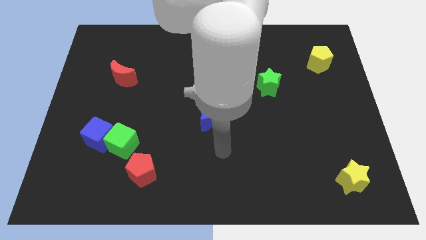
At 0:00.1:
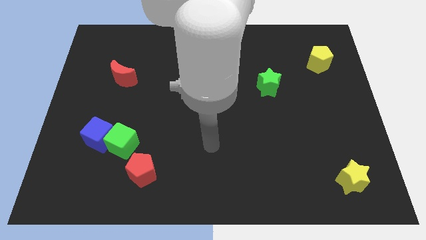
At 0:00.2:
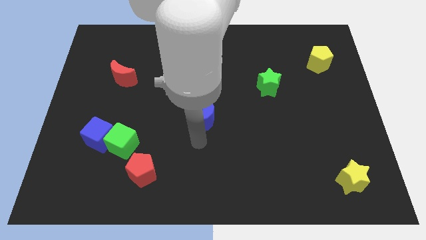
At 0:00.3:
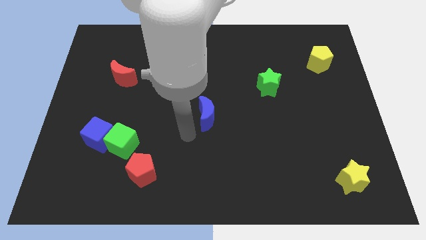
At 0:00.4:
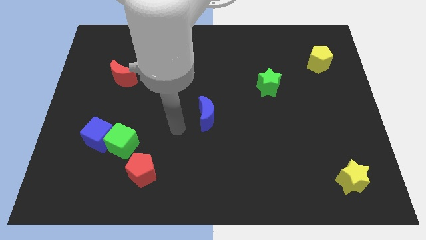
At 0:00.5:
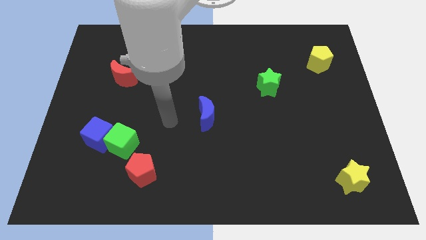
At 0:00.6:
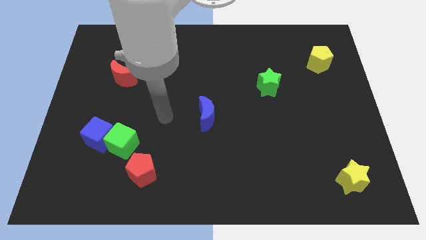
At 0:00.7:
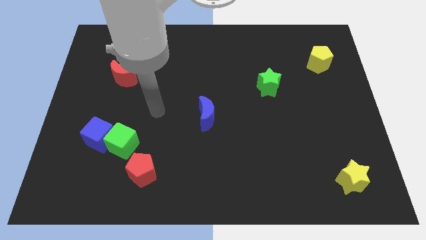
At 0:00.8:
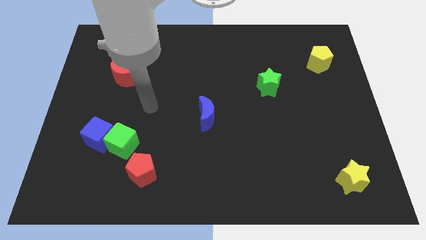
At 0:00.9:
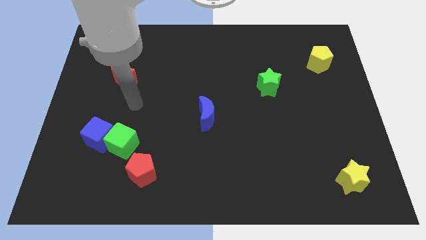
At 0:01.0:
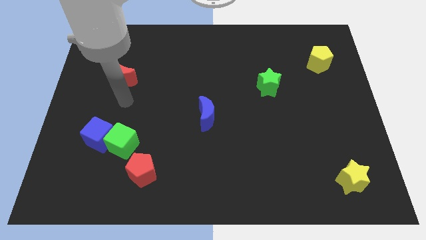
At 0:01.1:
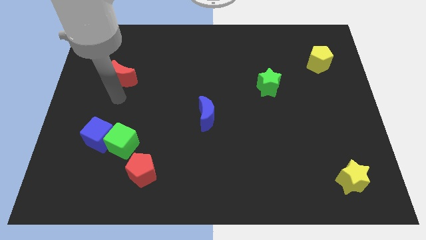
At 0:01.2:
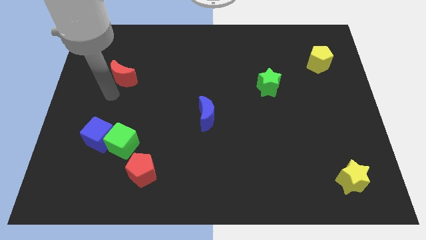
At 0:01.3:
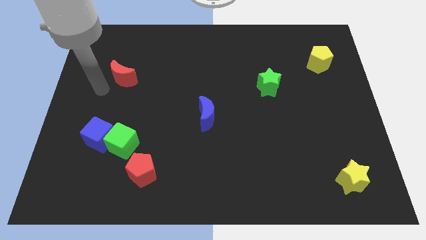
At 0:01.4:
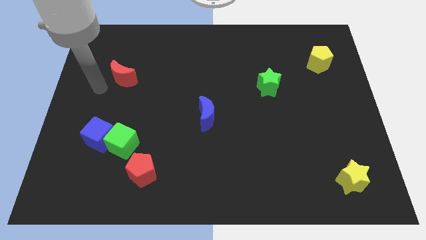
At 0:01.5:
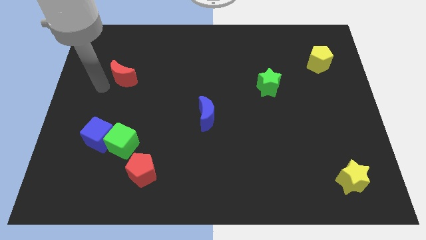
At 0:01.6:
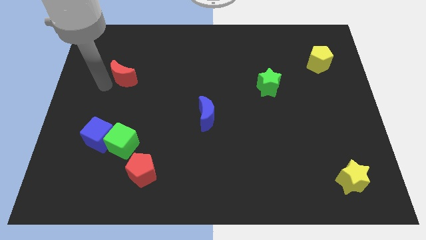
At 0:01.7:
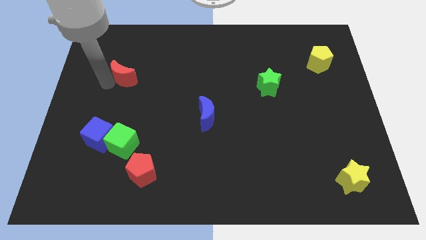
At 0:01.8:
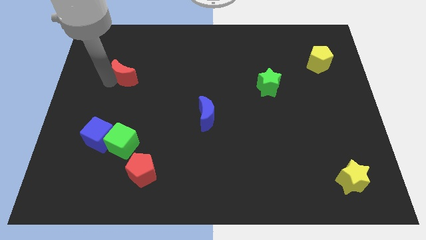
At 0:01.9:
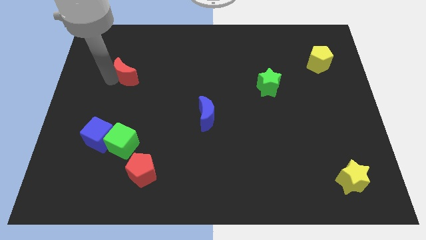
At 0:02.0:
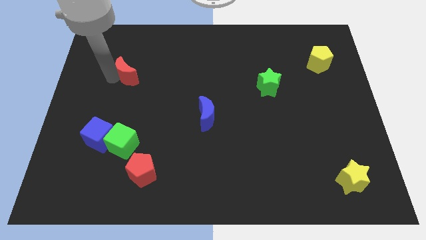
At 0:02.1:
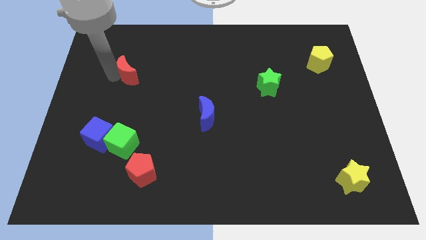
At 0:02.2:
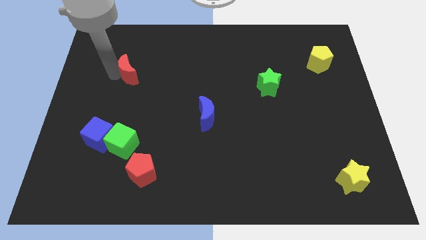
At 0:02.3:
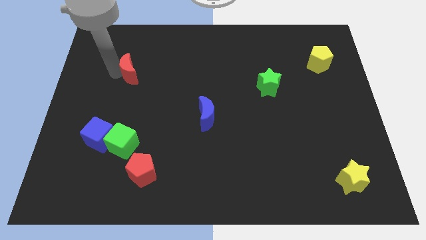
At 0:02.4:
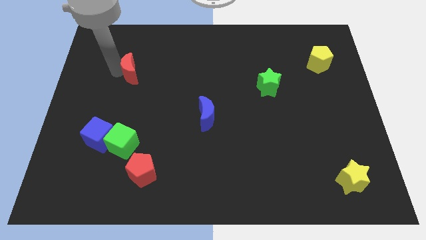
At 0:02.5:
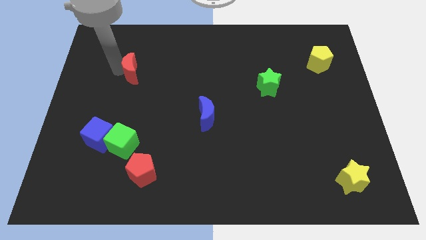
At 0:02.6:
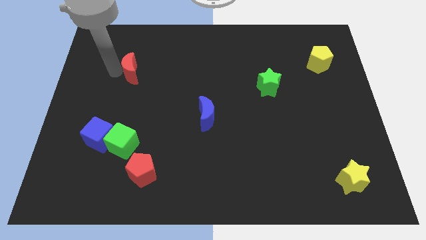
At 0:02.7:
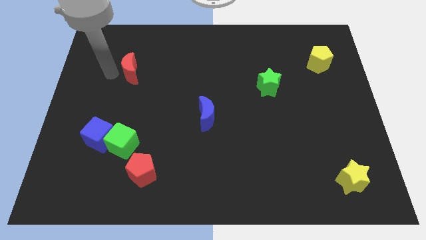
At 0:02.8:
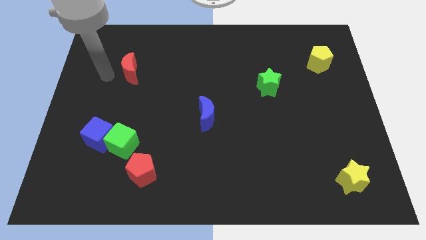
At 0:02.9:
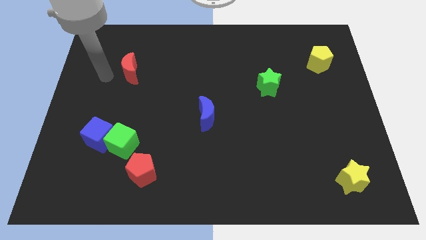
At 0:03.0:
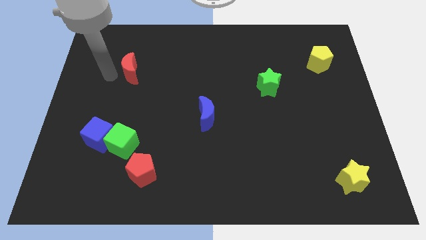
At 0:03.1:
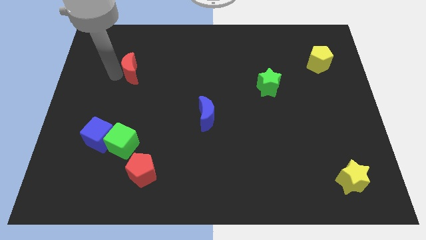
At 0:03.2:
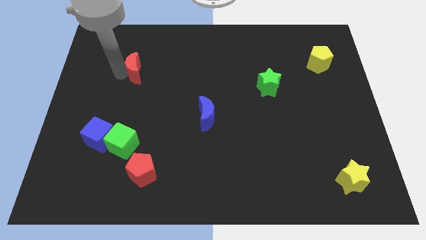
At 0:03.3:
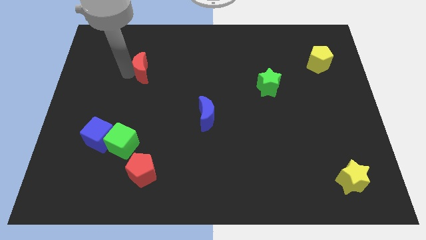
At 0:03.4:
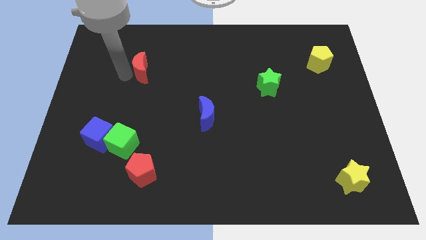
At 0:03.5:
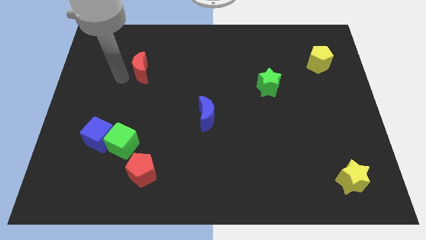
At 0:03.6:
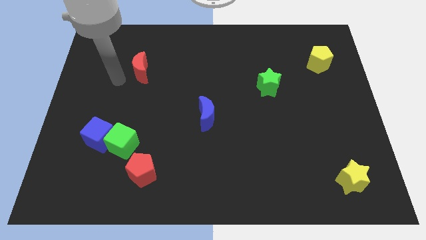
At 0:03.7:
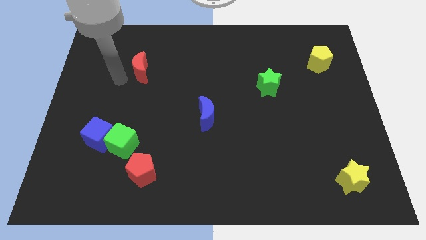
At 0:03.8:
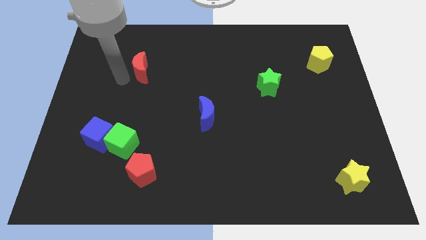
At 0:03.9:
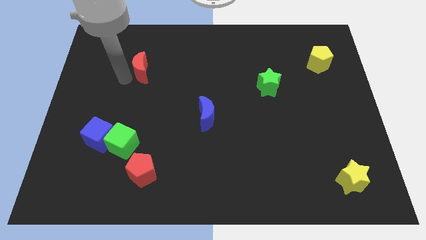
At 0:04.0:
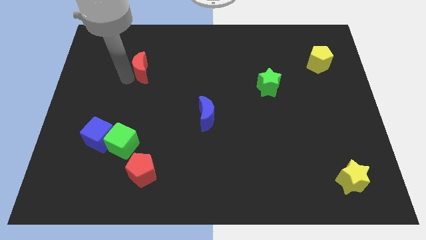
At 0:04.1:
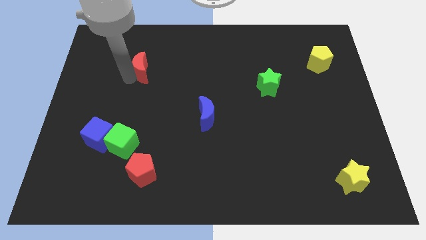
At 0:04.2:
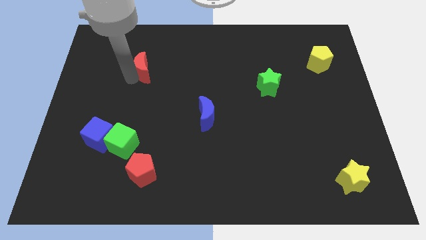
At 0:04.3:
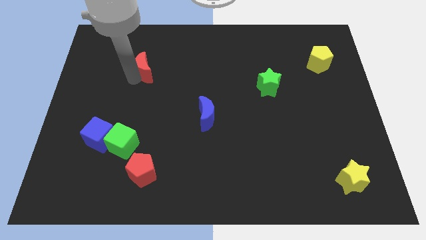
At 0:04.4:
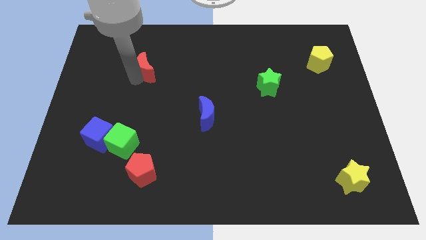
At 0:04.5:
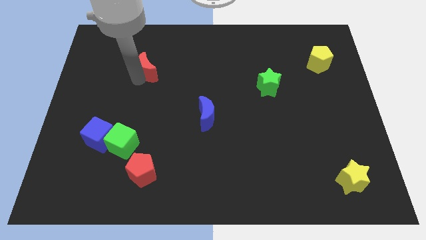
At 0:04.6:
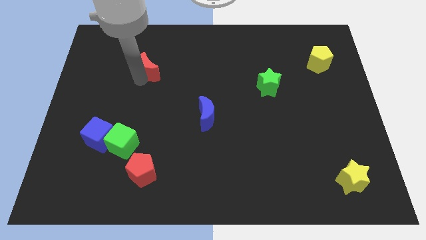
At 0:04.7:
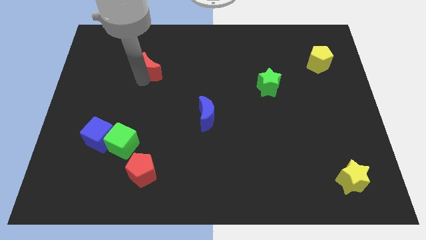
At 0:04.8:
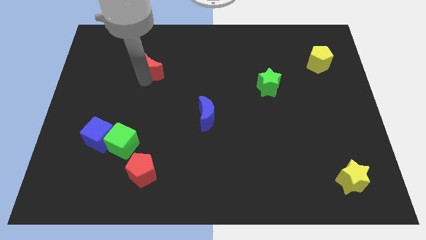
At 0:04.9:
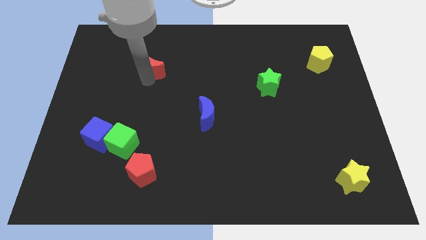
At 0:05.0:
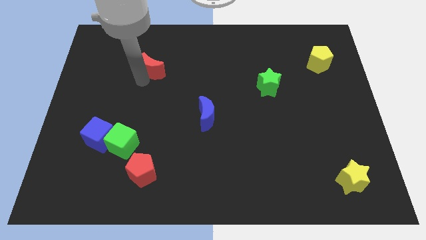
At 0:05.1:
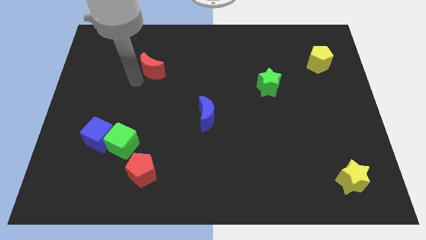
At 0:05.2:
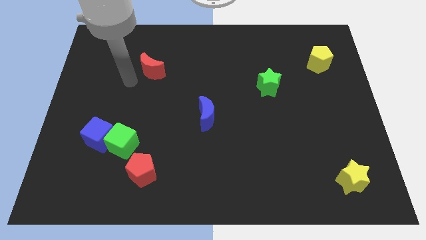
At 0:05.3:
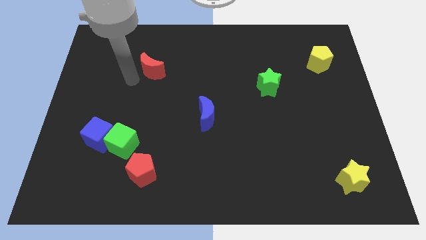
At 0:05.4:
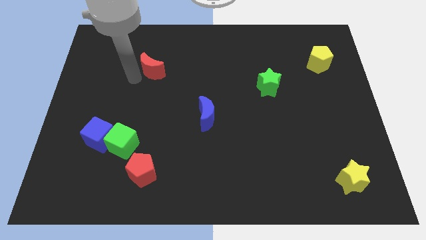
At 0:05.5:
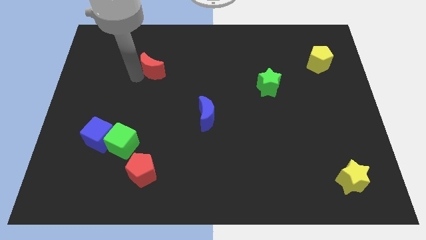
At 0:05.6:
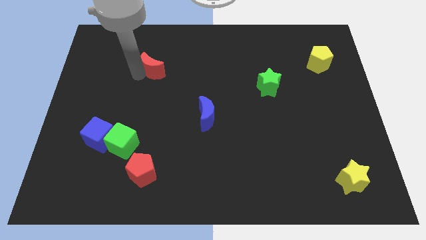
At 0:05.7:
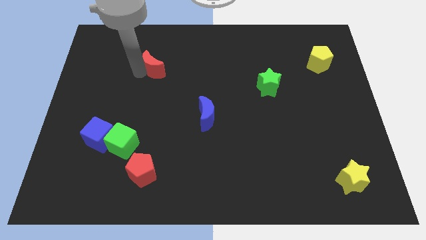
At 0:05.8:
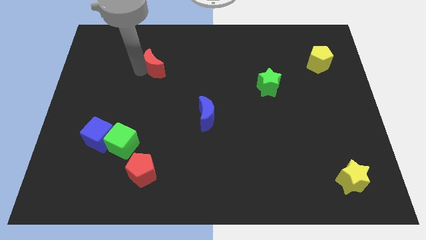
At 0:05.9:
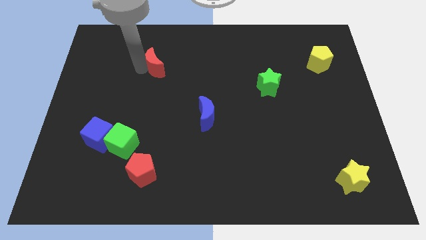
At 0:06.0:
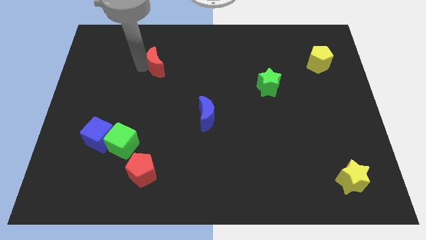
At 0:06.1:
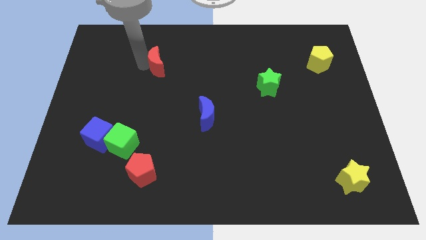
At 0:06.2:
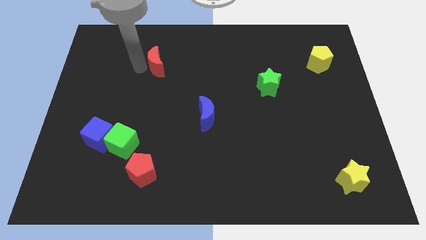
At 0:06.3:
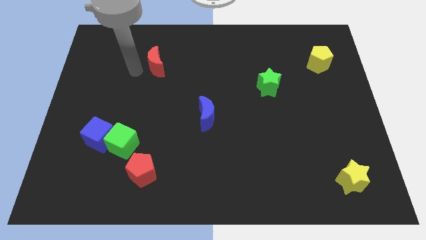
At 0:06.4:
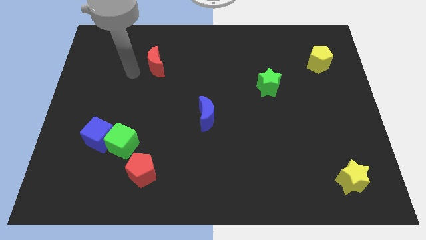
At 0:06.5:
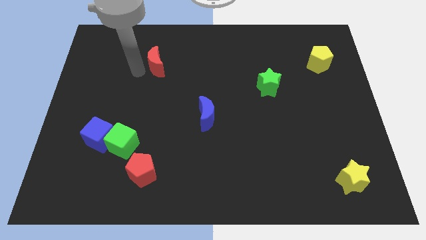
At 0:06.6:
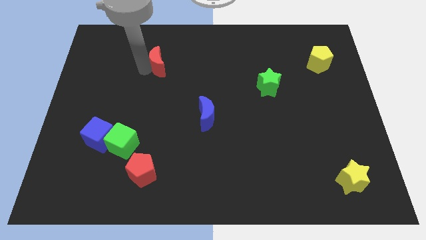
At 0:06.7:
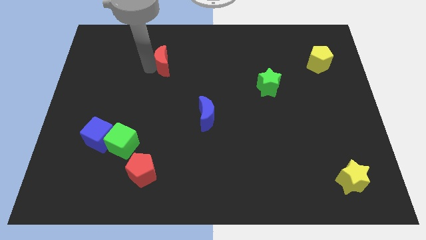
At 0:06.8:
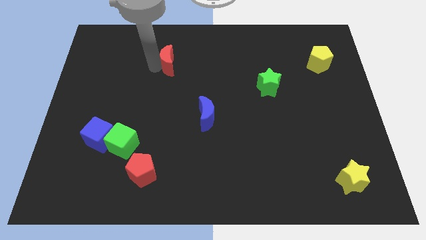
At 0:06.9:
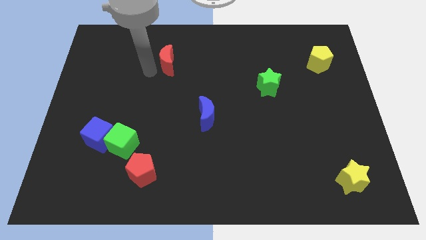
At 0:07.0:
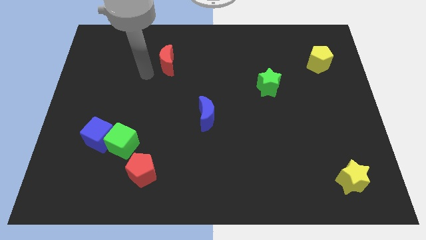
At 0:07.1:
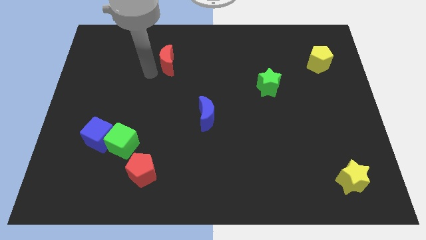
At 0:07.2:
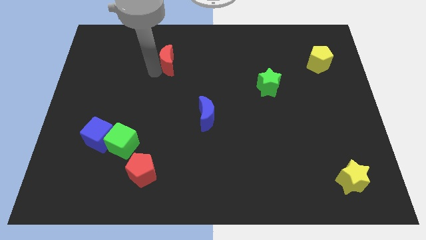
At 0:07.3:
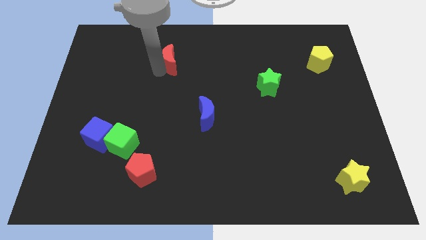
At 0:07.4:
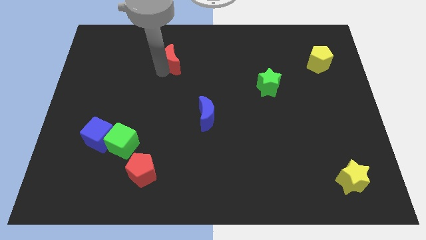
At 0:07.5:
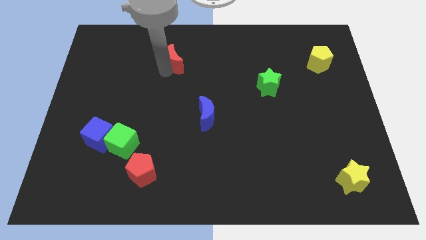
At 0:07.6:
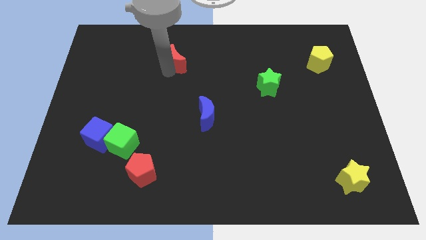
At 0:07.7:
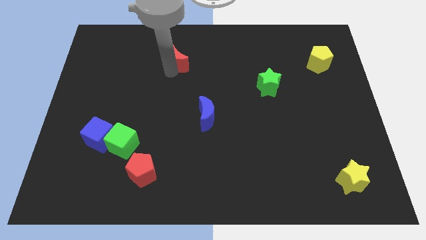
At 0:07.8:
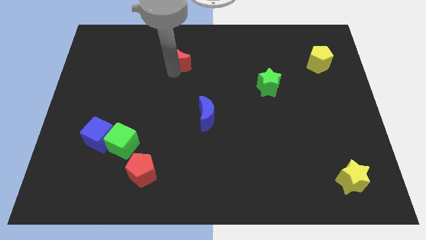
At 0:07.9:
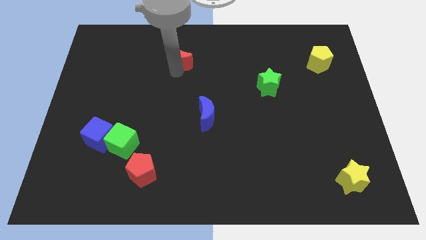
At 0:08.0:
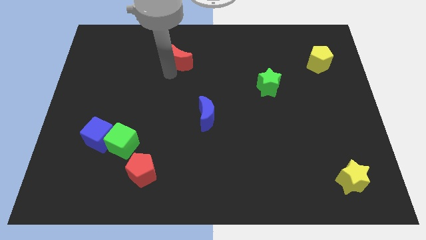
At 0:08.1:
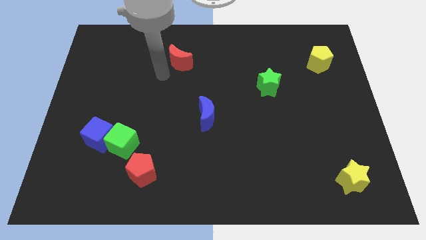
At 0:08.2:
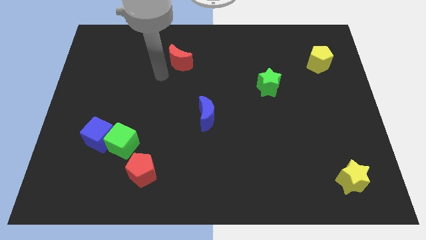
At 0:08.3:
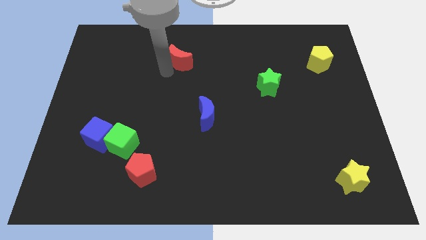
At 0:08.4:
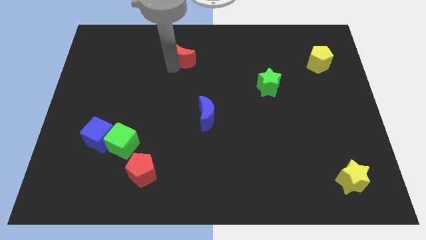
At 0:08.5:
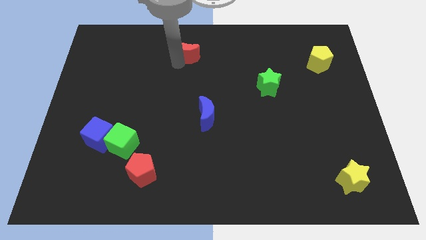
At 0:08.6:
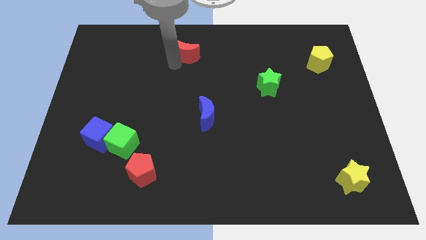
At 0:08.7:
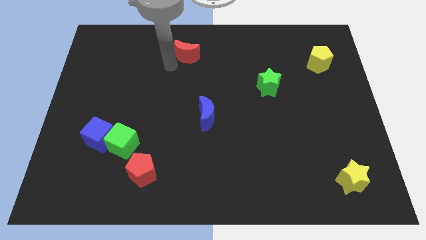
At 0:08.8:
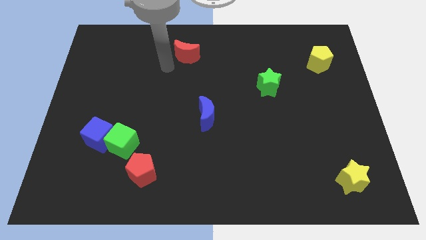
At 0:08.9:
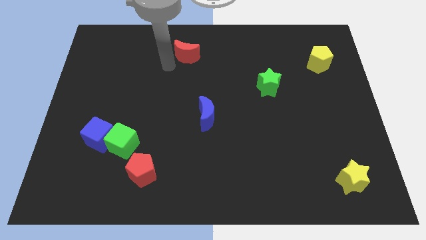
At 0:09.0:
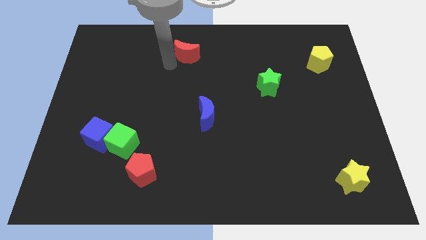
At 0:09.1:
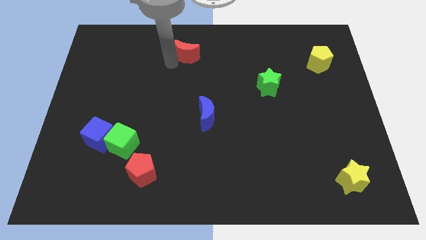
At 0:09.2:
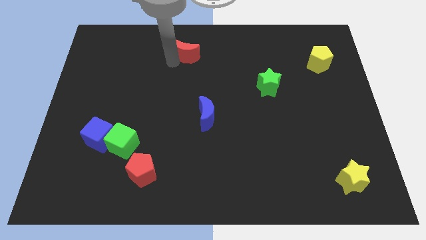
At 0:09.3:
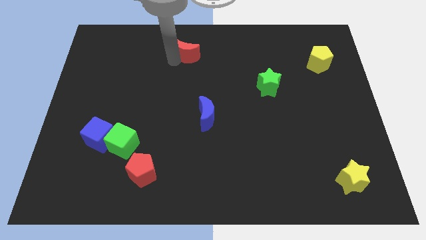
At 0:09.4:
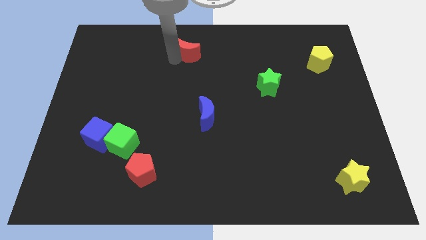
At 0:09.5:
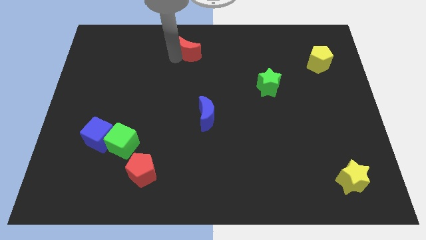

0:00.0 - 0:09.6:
move the red moon to the top side
